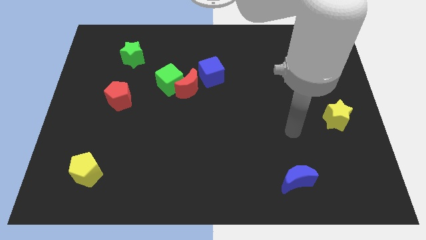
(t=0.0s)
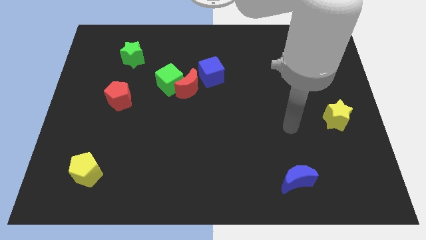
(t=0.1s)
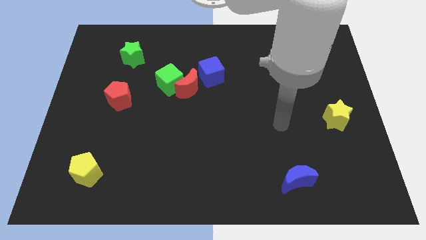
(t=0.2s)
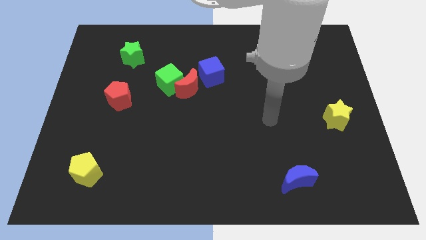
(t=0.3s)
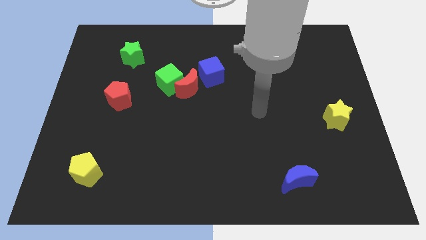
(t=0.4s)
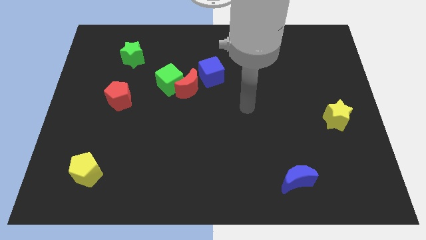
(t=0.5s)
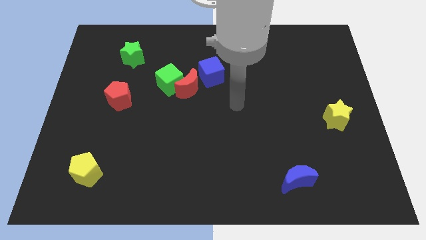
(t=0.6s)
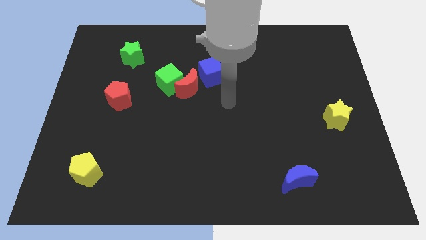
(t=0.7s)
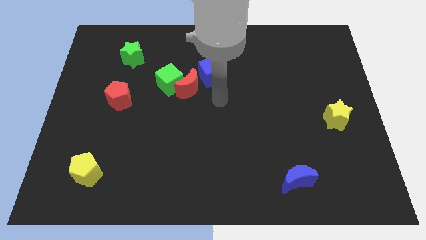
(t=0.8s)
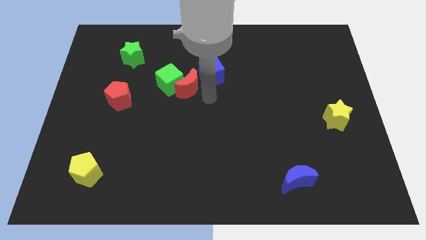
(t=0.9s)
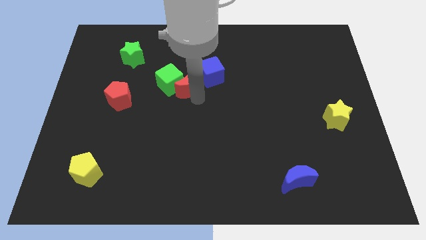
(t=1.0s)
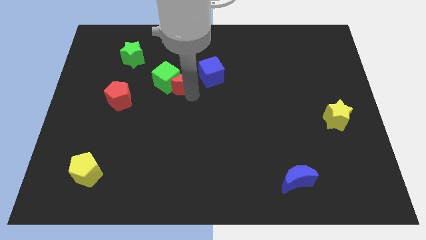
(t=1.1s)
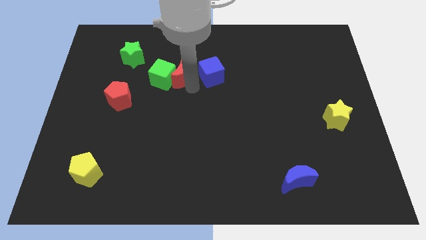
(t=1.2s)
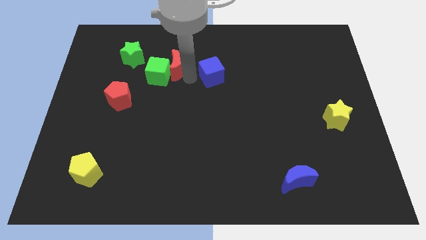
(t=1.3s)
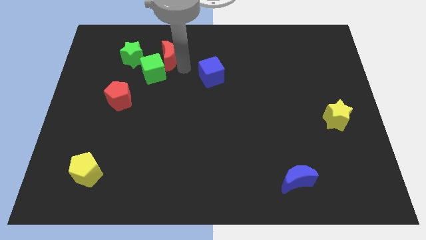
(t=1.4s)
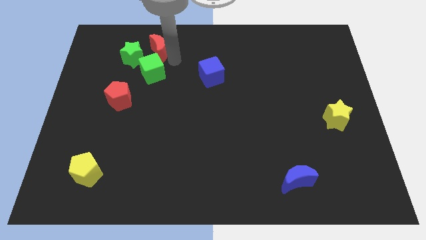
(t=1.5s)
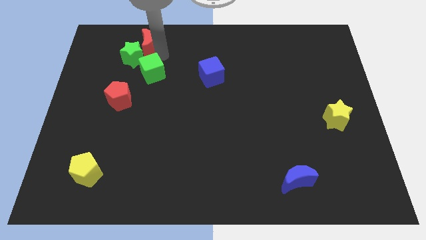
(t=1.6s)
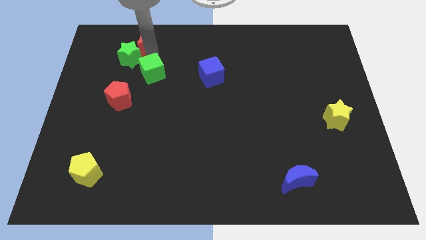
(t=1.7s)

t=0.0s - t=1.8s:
move the green cube away from the red moon

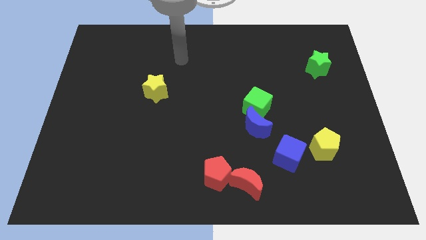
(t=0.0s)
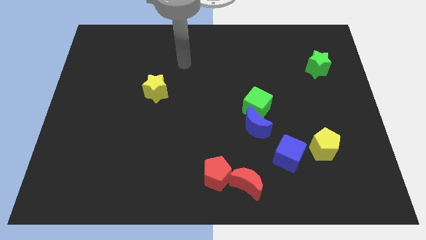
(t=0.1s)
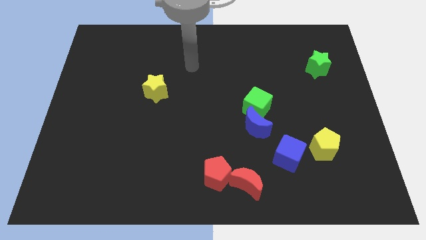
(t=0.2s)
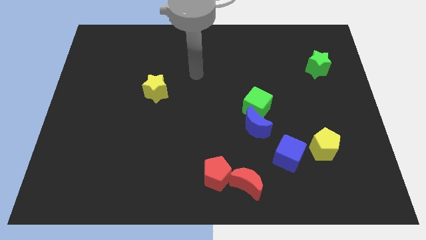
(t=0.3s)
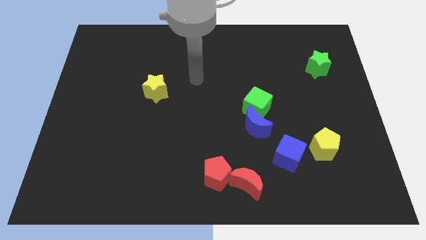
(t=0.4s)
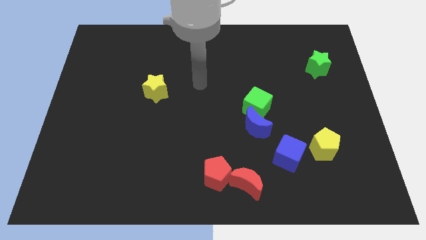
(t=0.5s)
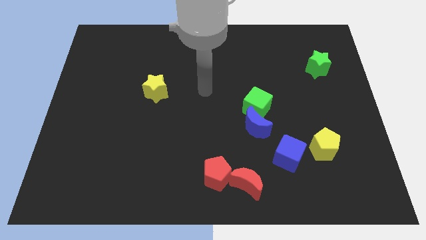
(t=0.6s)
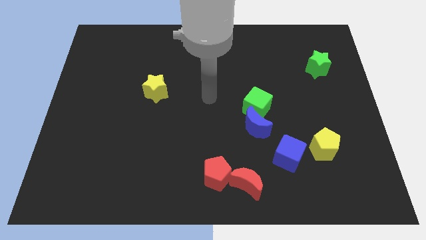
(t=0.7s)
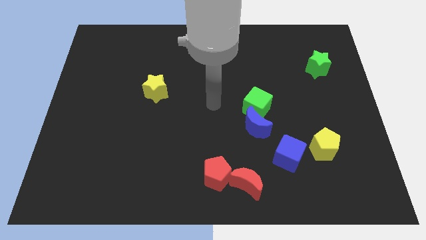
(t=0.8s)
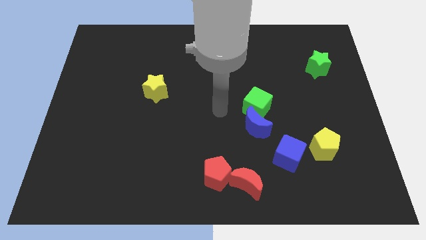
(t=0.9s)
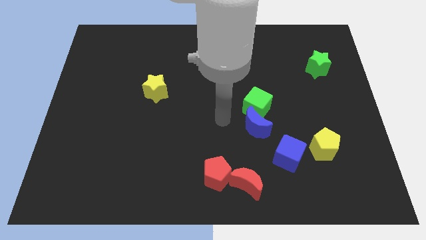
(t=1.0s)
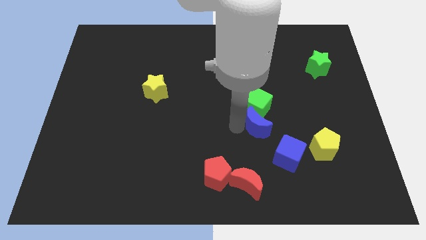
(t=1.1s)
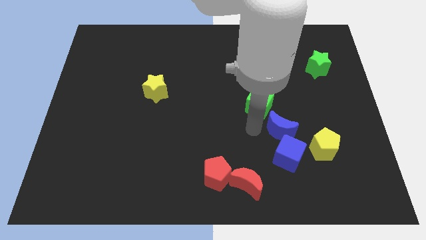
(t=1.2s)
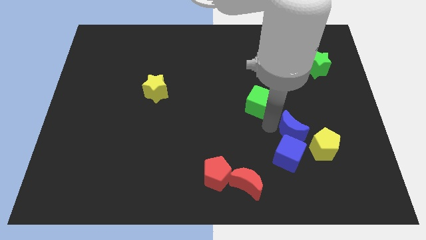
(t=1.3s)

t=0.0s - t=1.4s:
pull the green cube apart from the blue moon

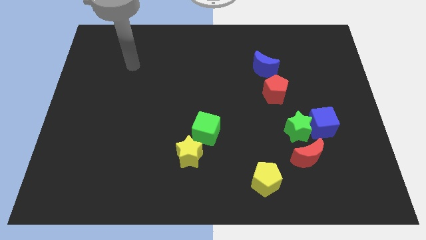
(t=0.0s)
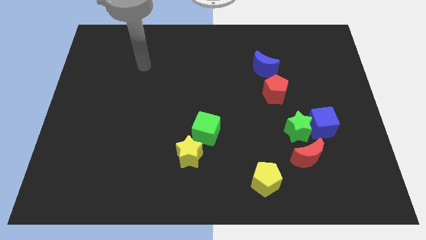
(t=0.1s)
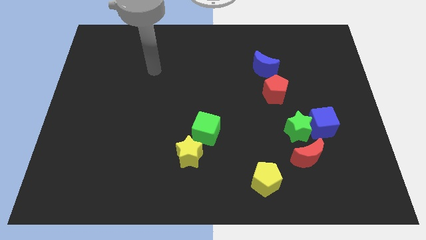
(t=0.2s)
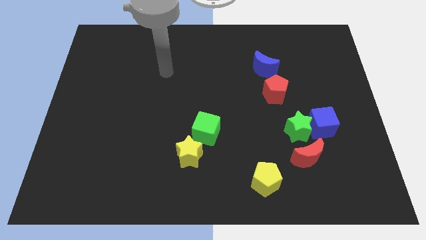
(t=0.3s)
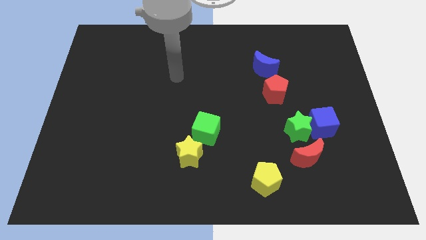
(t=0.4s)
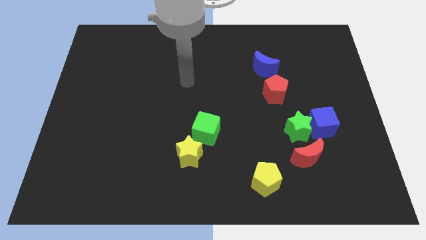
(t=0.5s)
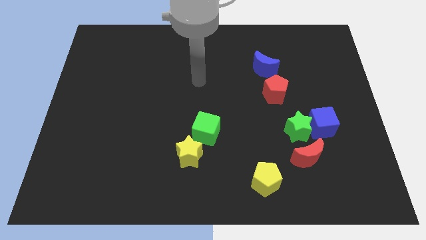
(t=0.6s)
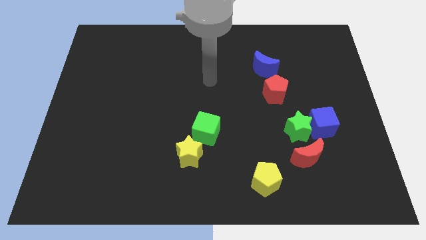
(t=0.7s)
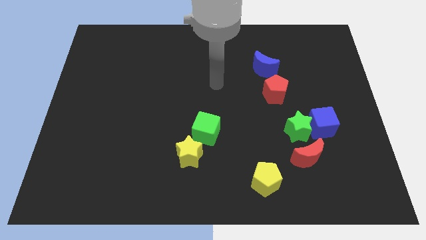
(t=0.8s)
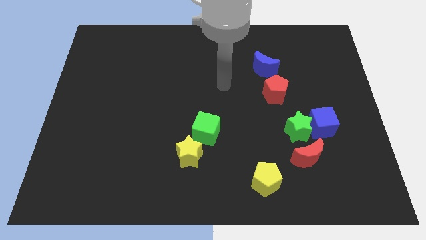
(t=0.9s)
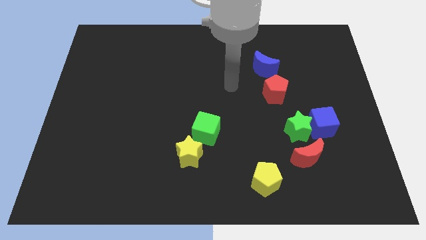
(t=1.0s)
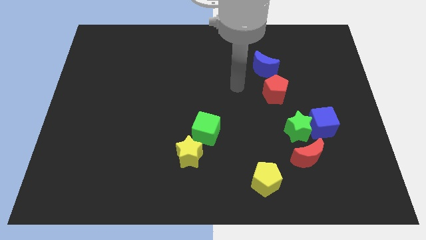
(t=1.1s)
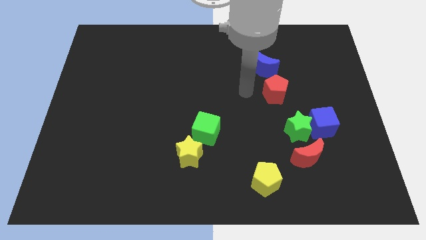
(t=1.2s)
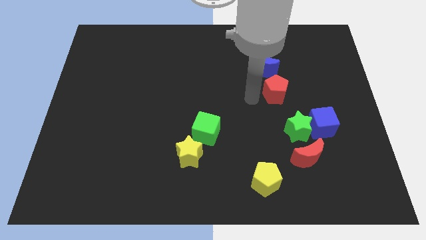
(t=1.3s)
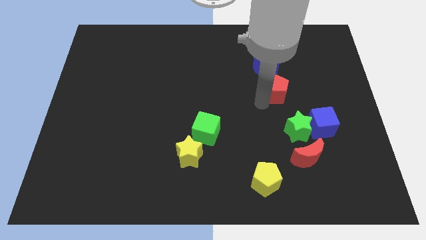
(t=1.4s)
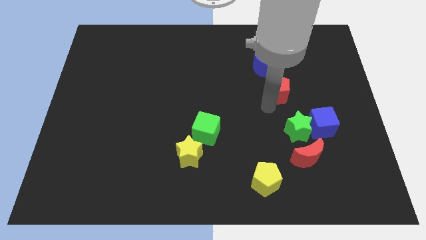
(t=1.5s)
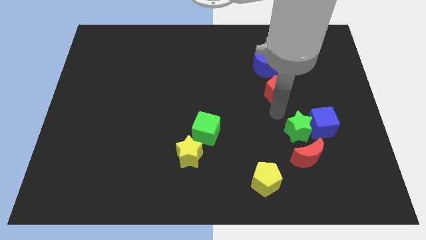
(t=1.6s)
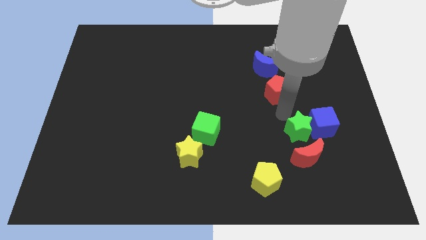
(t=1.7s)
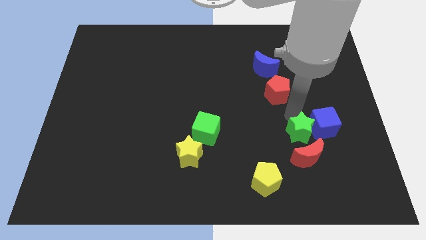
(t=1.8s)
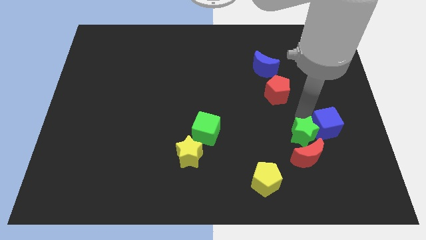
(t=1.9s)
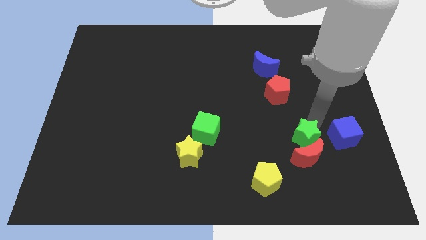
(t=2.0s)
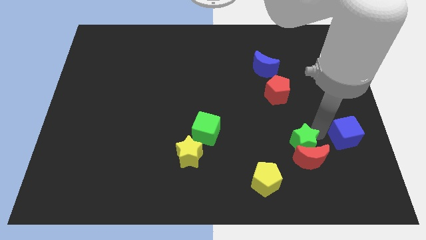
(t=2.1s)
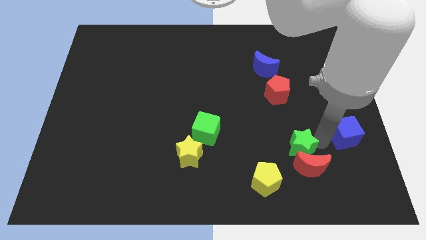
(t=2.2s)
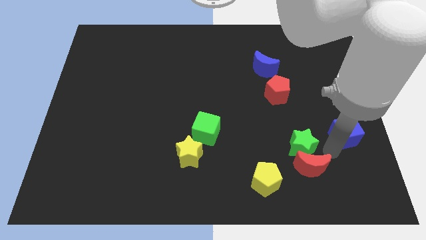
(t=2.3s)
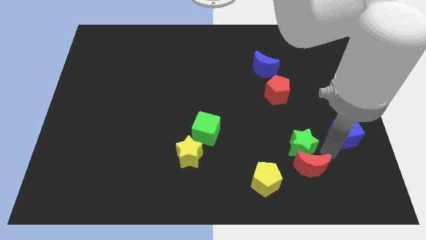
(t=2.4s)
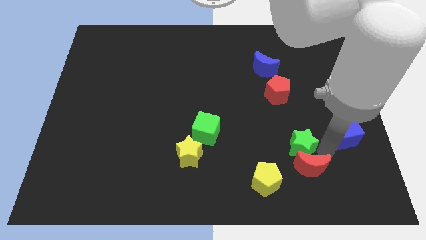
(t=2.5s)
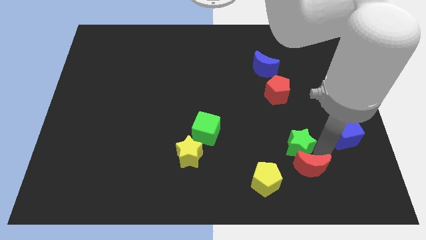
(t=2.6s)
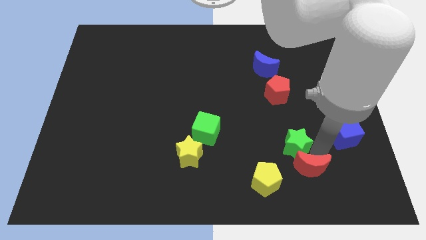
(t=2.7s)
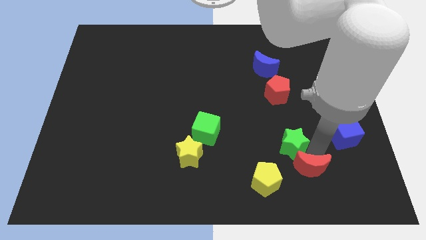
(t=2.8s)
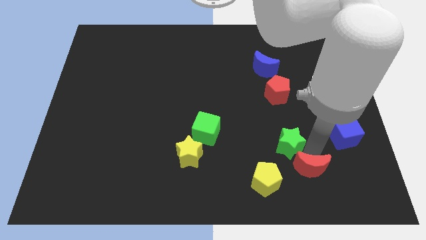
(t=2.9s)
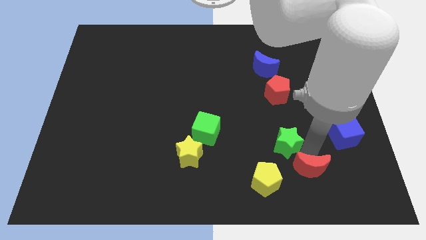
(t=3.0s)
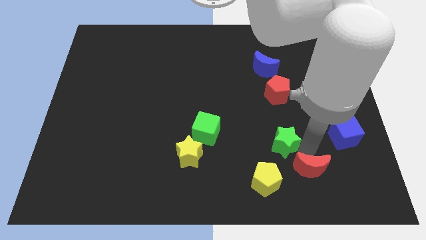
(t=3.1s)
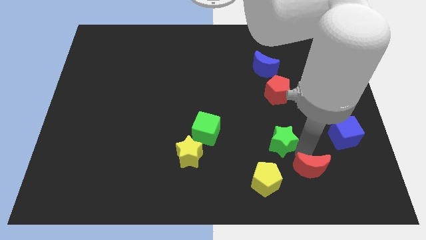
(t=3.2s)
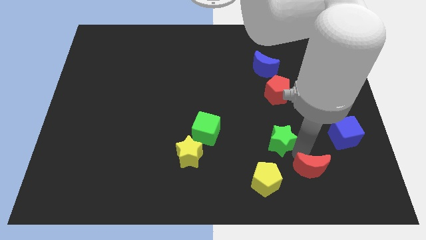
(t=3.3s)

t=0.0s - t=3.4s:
pull the green star apart from the blue cube and red moon

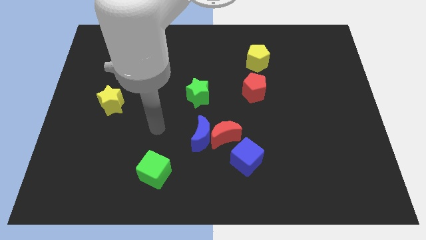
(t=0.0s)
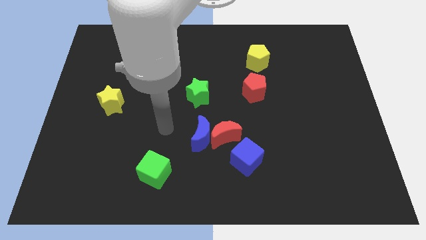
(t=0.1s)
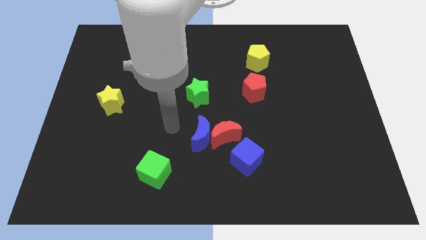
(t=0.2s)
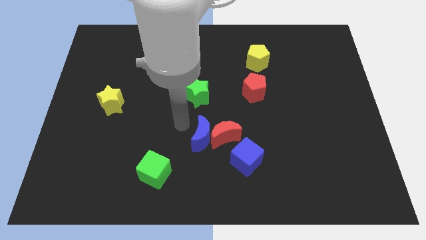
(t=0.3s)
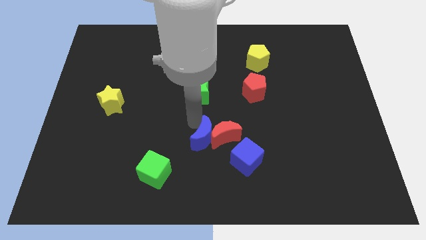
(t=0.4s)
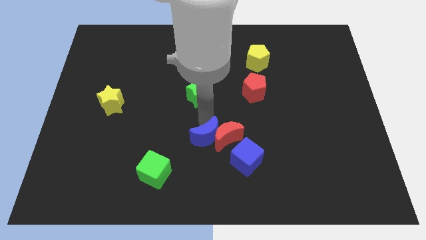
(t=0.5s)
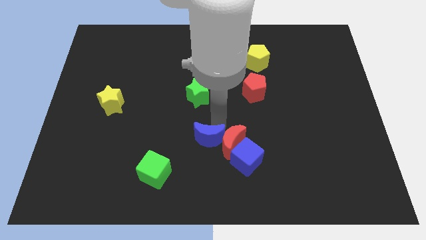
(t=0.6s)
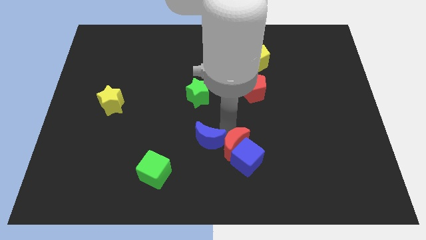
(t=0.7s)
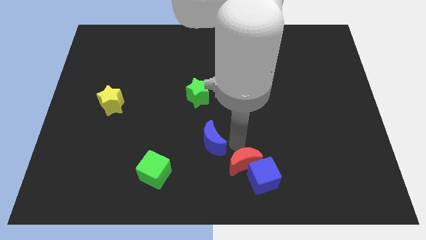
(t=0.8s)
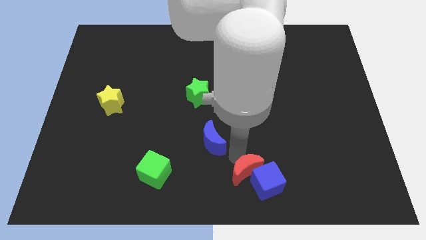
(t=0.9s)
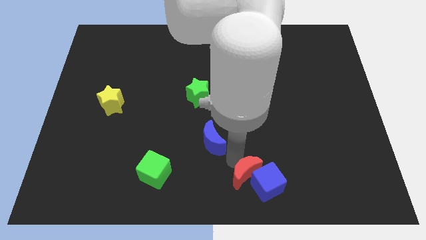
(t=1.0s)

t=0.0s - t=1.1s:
pull the blue moon apart from the red moon

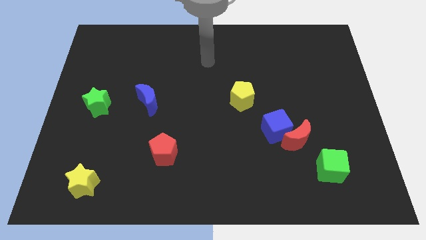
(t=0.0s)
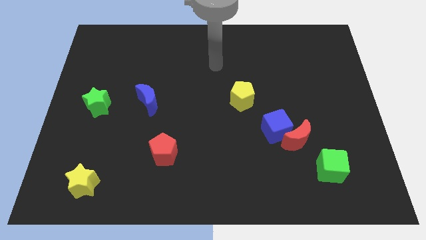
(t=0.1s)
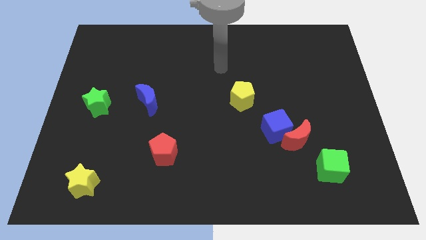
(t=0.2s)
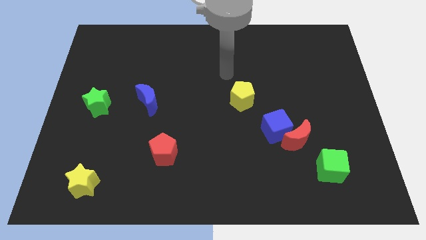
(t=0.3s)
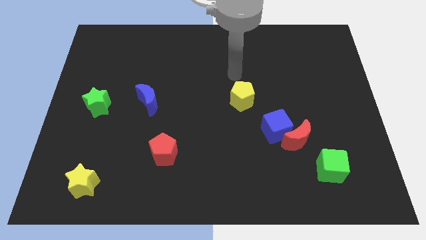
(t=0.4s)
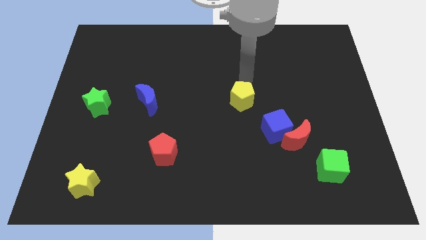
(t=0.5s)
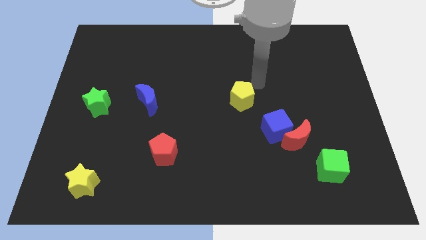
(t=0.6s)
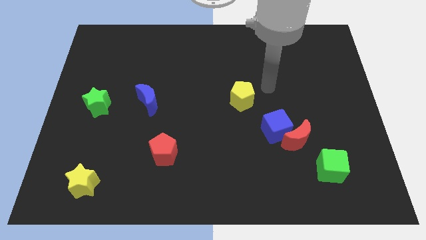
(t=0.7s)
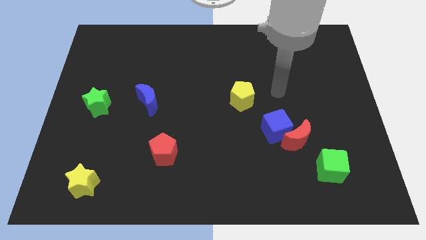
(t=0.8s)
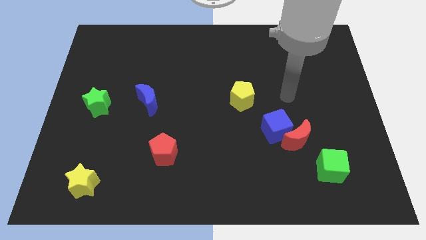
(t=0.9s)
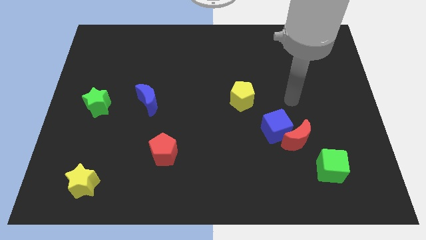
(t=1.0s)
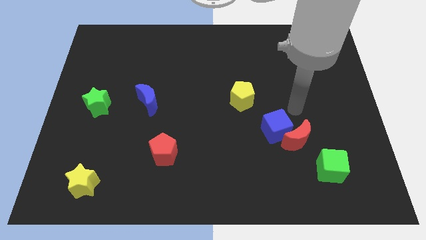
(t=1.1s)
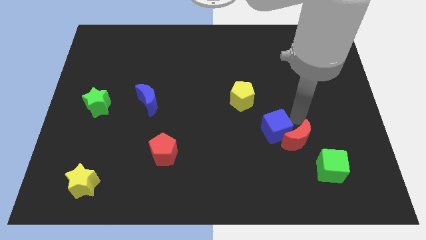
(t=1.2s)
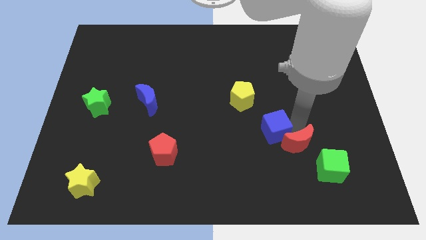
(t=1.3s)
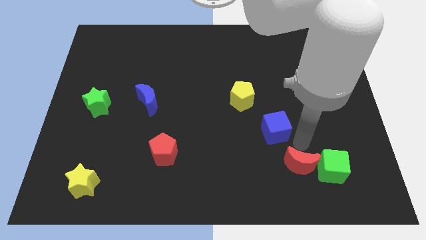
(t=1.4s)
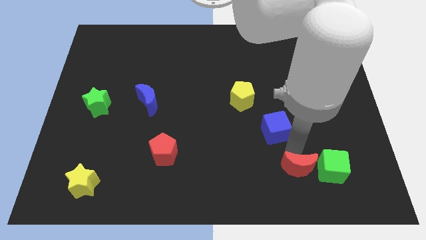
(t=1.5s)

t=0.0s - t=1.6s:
pull the blue cube apart from the red moon
